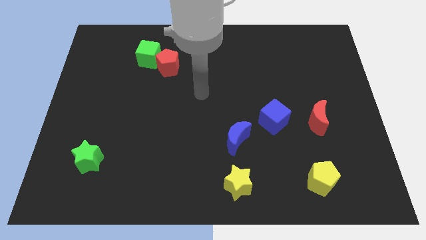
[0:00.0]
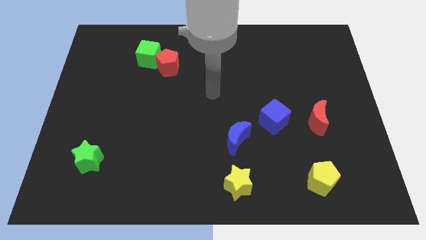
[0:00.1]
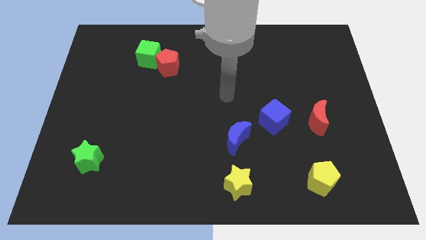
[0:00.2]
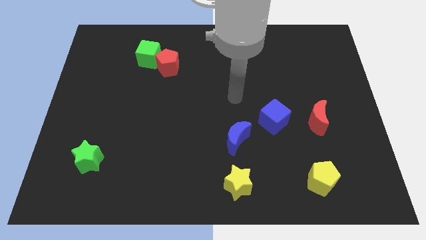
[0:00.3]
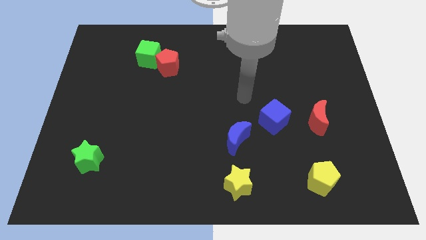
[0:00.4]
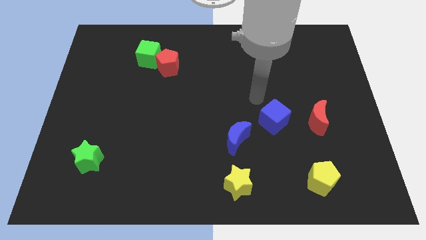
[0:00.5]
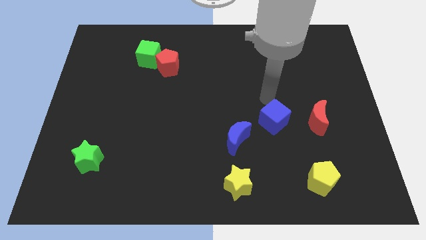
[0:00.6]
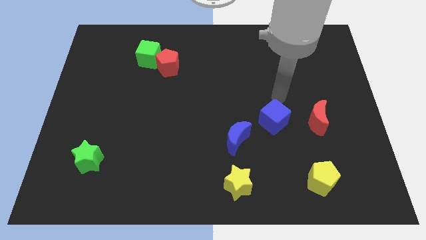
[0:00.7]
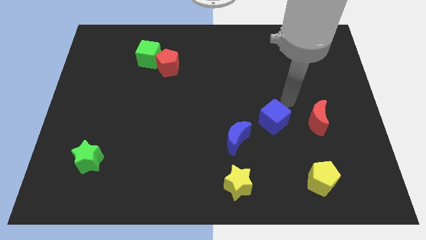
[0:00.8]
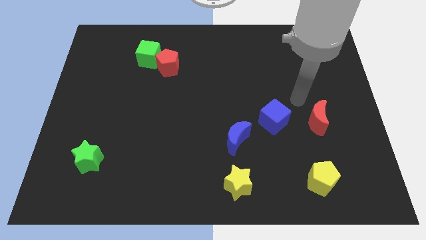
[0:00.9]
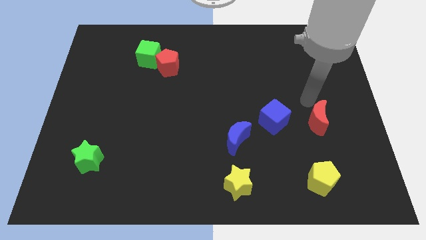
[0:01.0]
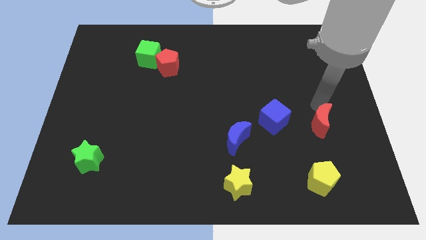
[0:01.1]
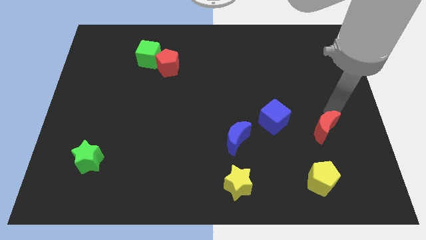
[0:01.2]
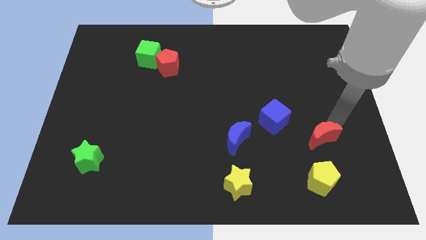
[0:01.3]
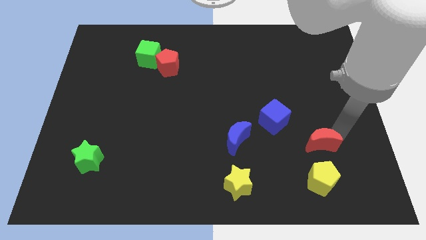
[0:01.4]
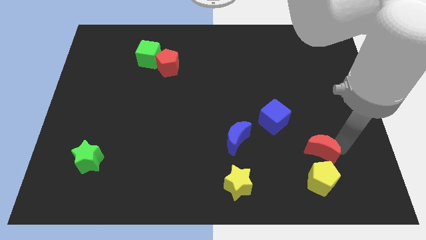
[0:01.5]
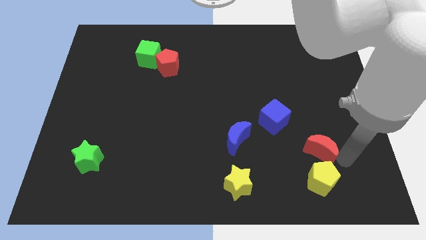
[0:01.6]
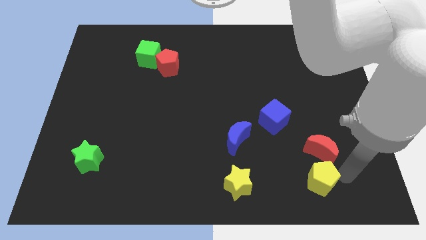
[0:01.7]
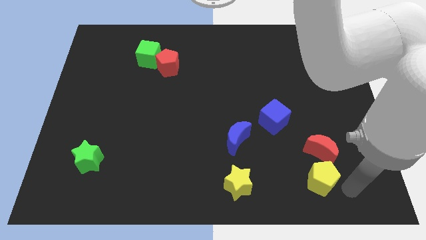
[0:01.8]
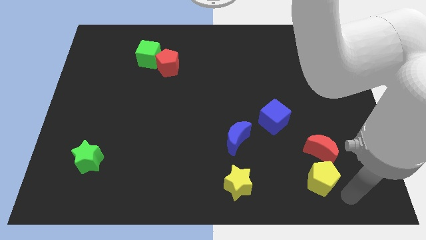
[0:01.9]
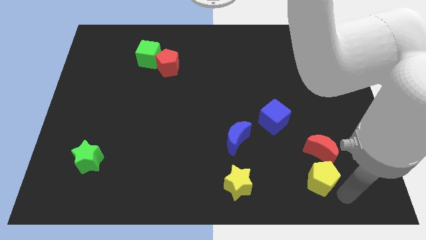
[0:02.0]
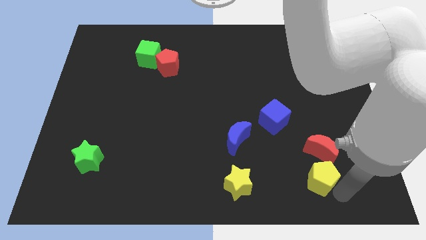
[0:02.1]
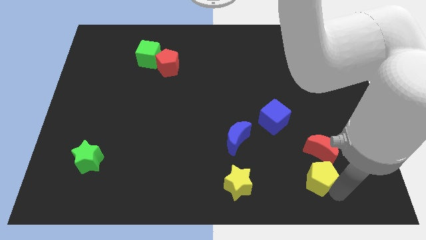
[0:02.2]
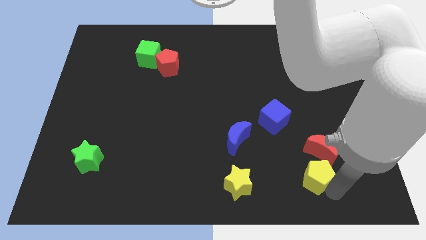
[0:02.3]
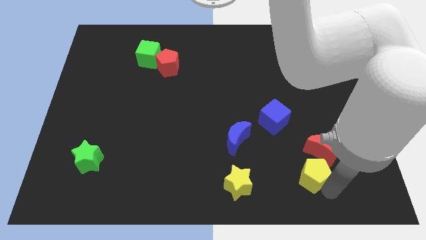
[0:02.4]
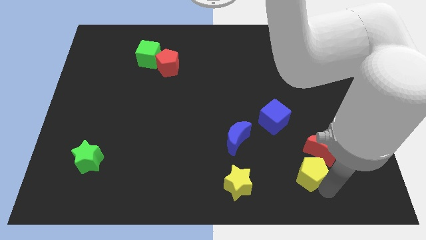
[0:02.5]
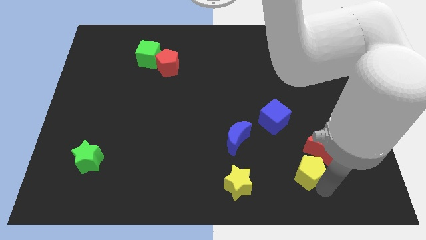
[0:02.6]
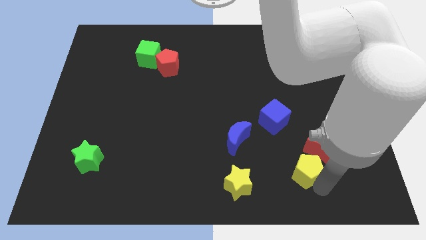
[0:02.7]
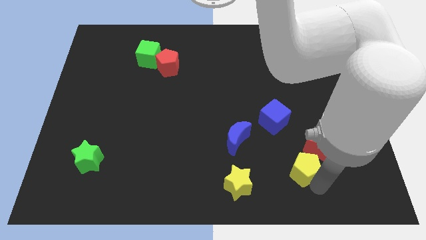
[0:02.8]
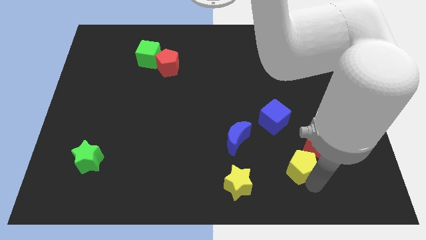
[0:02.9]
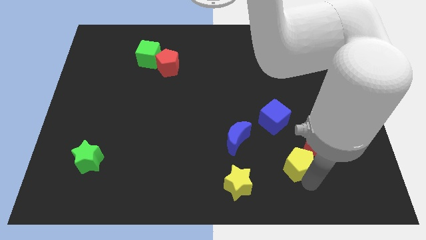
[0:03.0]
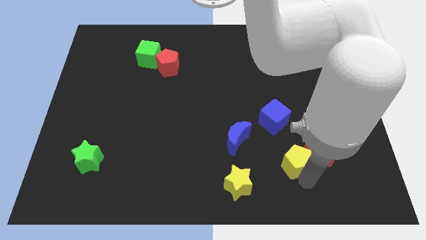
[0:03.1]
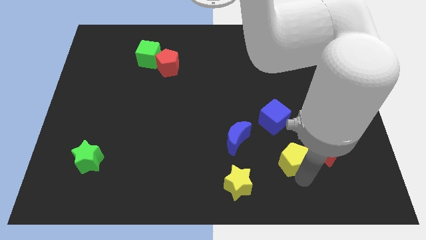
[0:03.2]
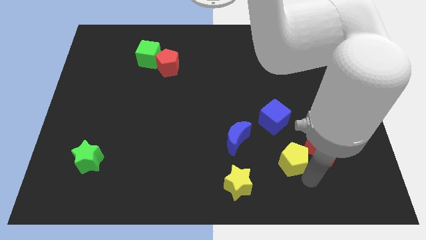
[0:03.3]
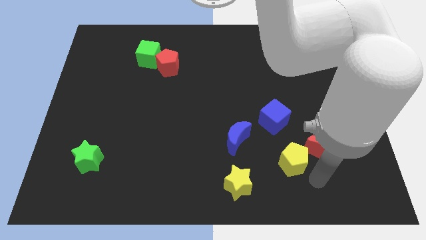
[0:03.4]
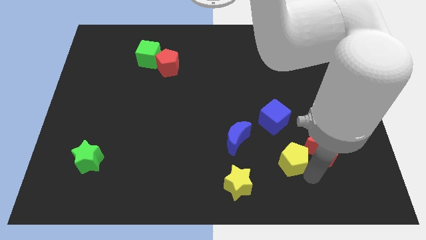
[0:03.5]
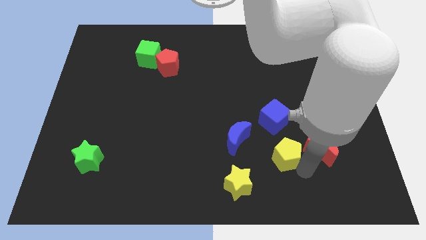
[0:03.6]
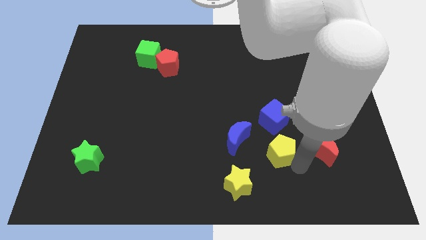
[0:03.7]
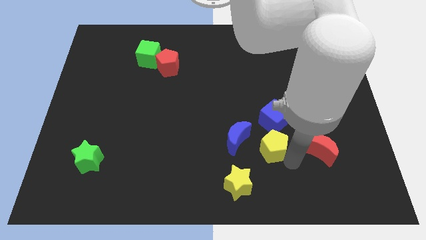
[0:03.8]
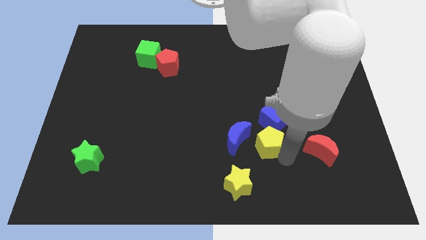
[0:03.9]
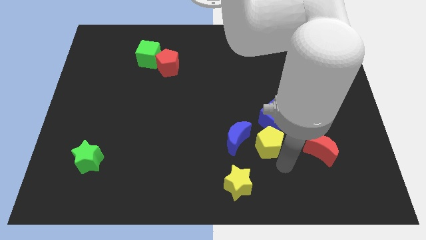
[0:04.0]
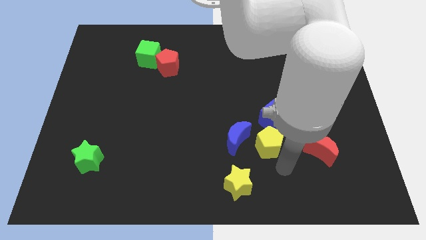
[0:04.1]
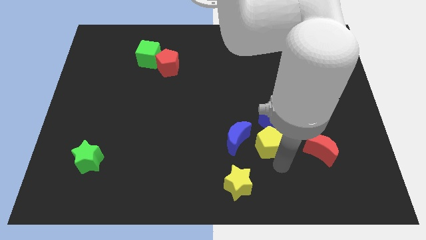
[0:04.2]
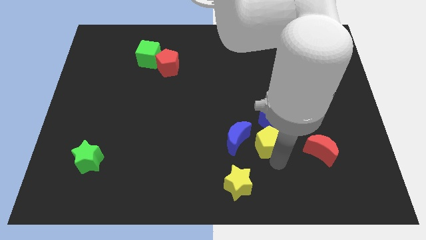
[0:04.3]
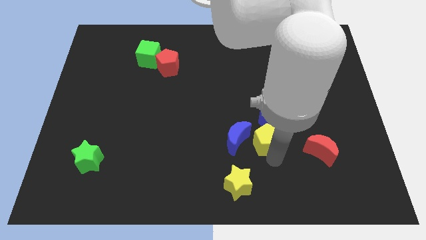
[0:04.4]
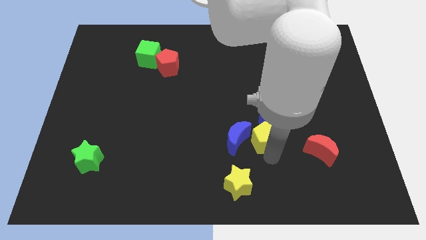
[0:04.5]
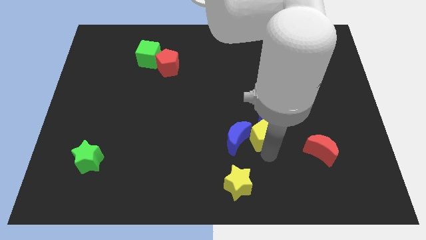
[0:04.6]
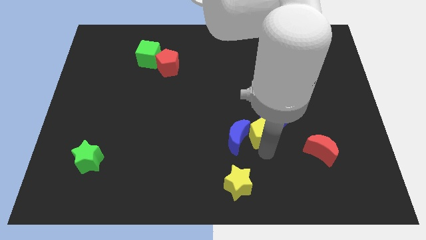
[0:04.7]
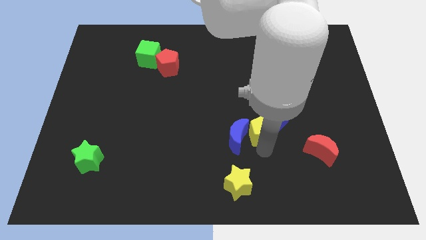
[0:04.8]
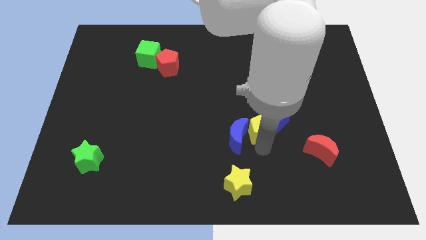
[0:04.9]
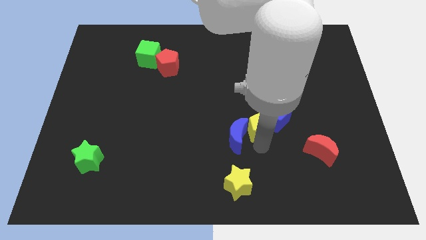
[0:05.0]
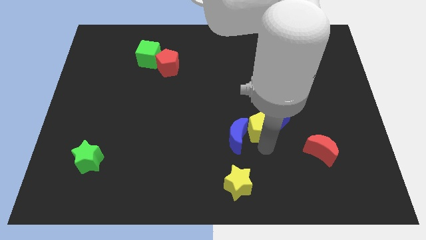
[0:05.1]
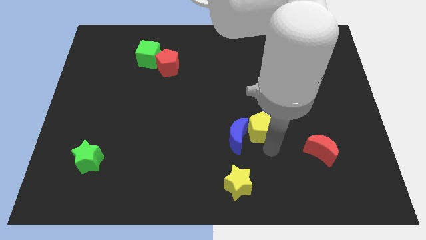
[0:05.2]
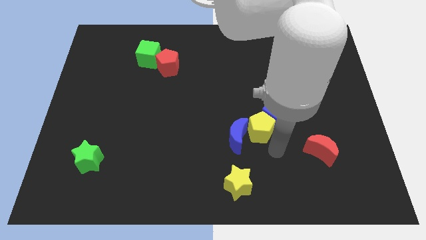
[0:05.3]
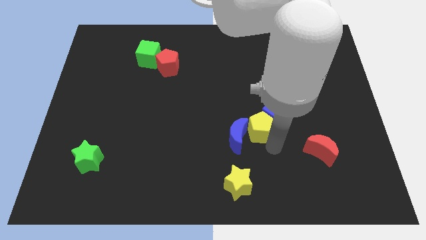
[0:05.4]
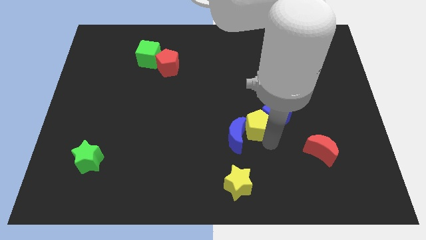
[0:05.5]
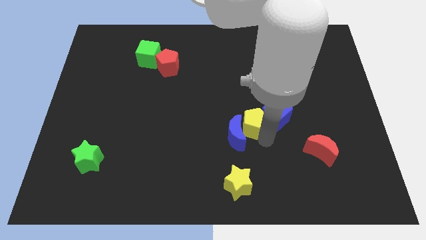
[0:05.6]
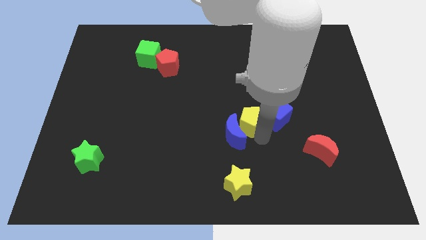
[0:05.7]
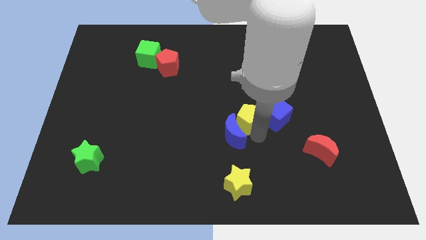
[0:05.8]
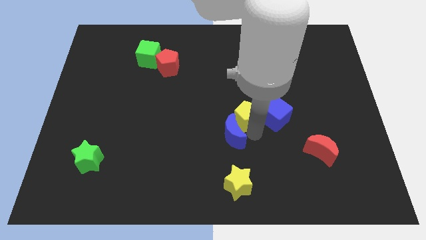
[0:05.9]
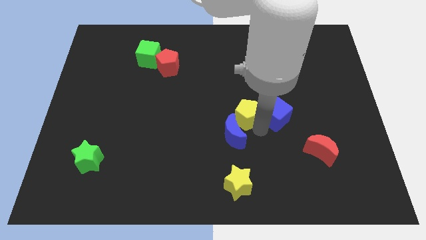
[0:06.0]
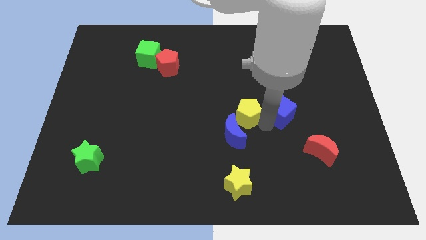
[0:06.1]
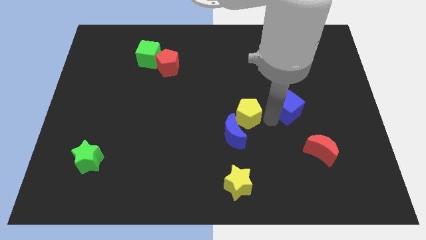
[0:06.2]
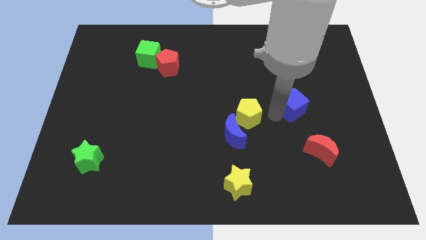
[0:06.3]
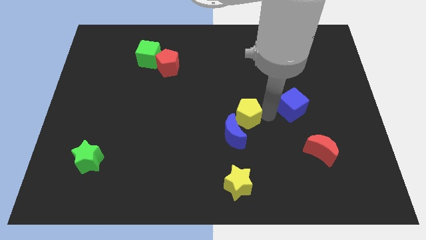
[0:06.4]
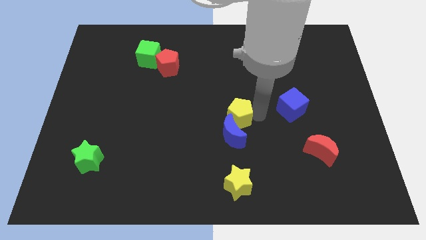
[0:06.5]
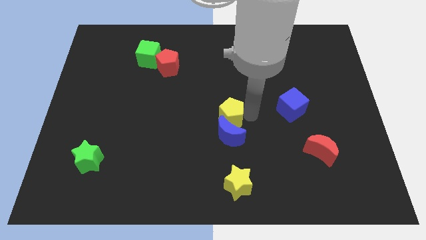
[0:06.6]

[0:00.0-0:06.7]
put the yellow pentagon diagonally up and to the left of the blue moon

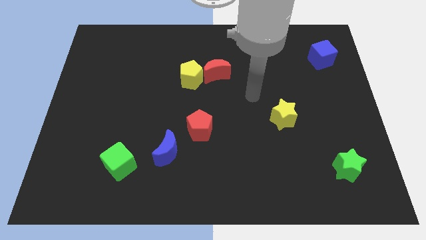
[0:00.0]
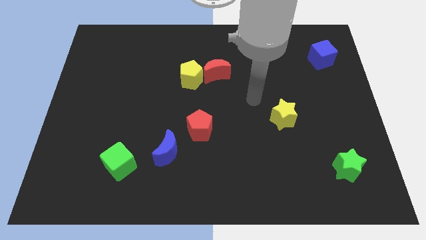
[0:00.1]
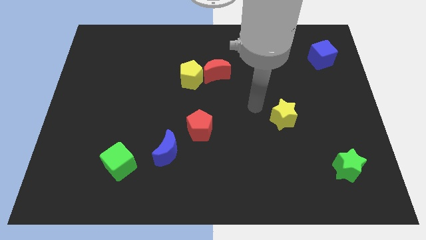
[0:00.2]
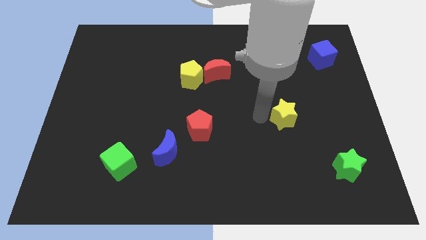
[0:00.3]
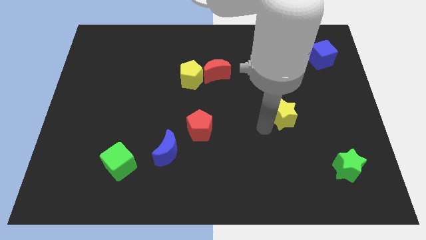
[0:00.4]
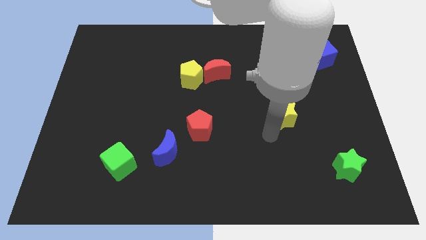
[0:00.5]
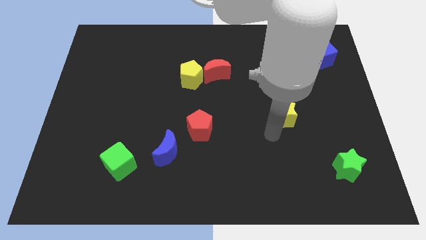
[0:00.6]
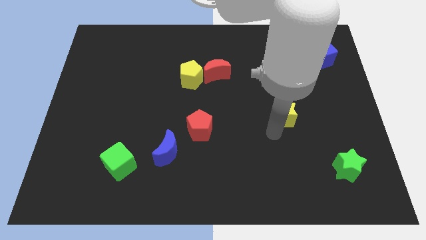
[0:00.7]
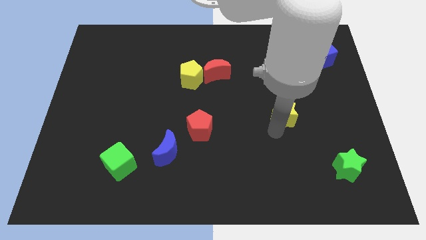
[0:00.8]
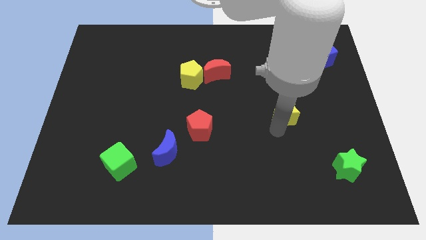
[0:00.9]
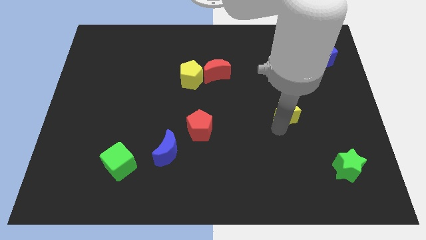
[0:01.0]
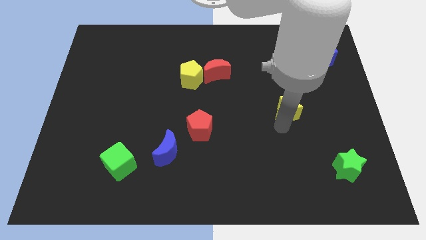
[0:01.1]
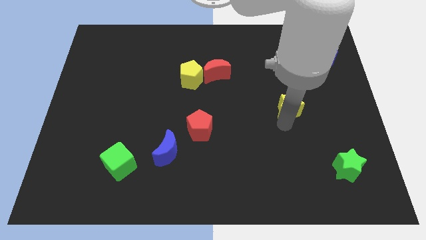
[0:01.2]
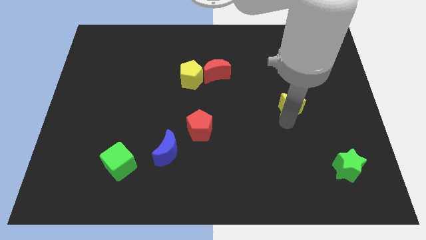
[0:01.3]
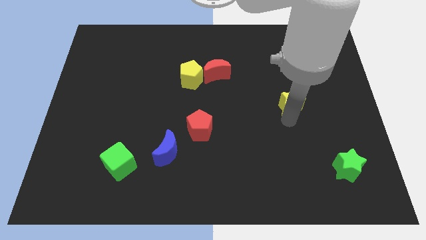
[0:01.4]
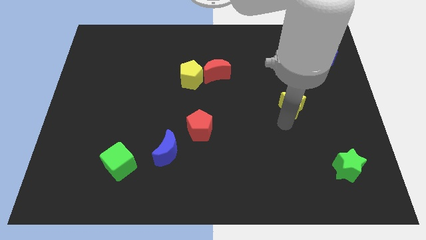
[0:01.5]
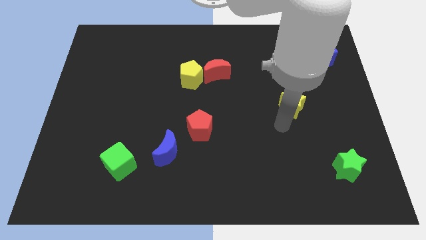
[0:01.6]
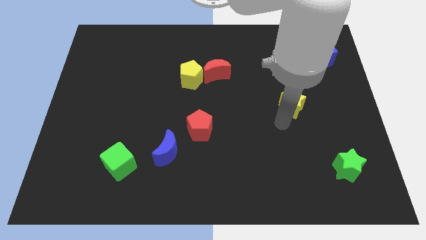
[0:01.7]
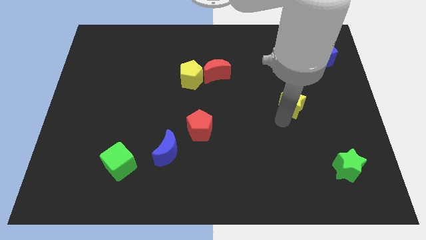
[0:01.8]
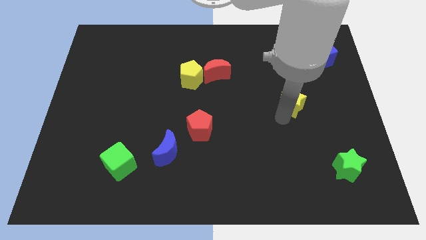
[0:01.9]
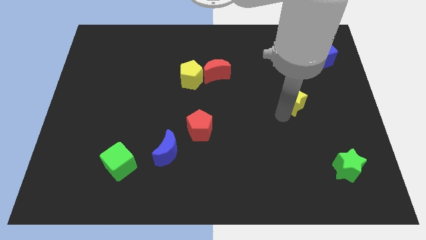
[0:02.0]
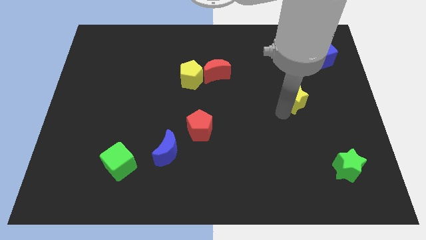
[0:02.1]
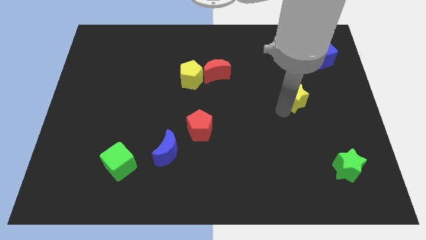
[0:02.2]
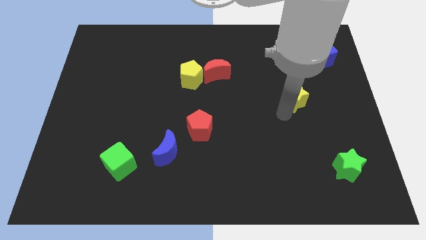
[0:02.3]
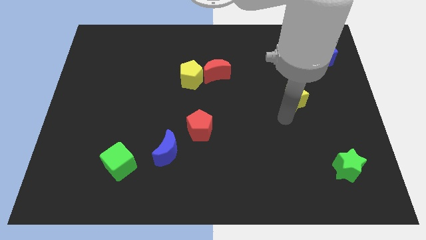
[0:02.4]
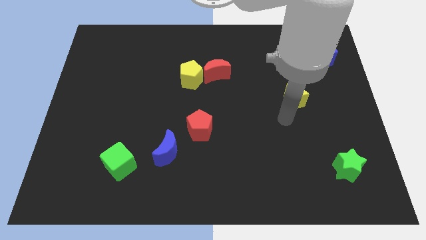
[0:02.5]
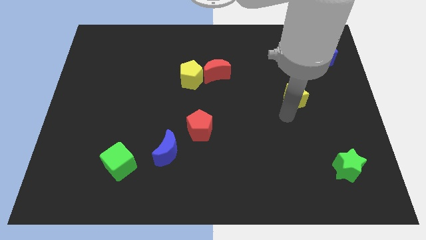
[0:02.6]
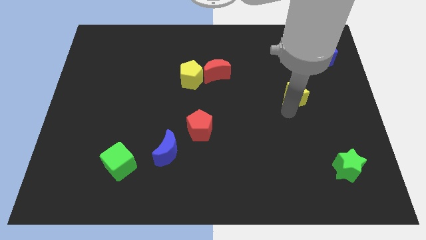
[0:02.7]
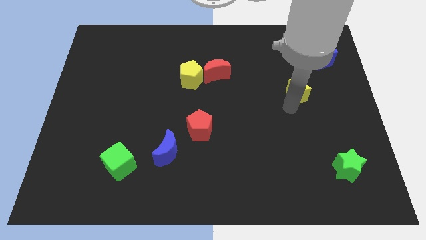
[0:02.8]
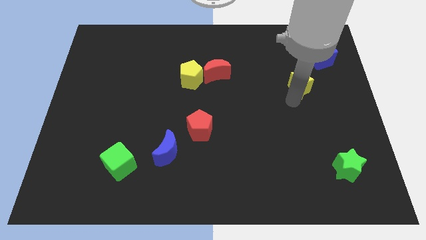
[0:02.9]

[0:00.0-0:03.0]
slide the yellow star to the bottom left of the blue cube
